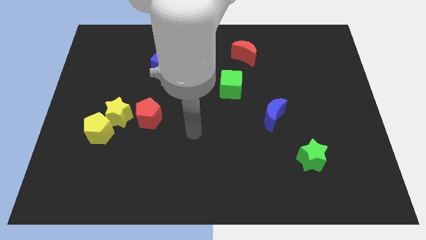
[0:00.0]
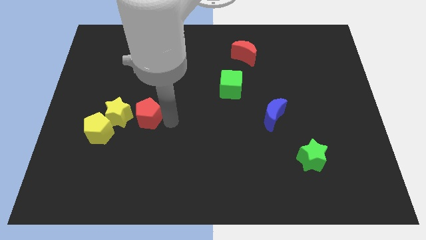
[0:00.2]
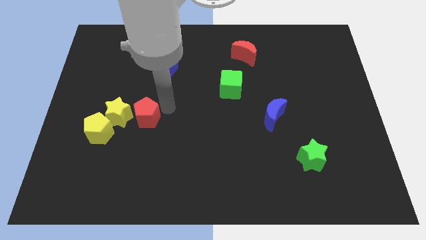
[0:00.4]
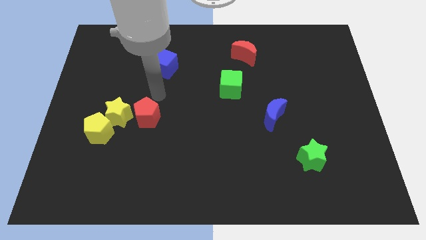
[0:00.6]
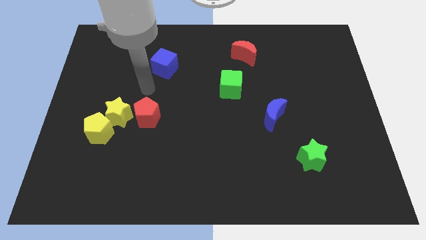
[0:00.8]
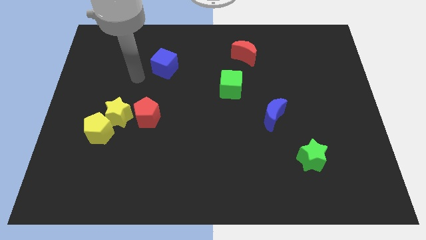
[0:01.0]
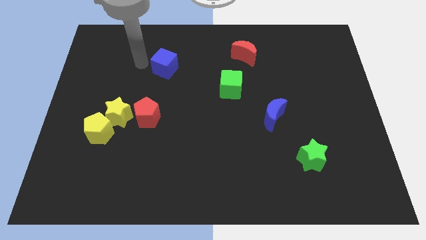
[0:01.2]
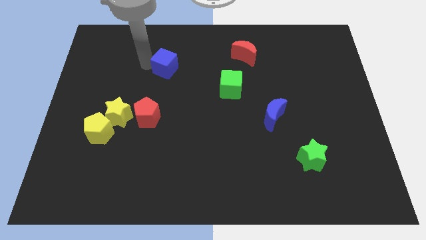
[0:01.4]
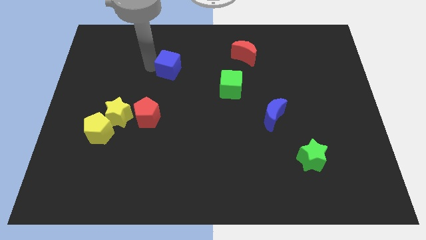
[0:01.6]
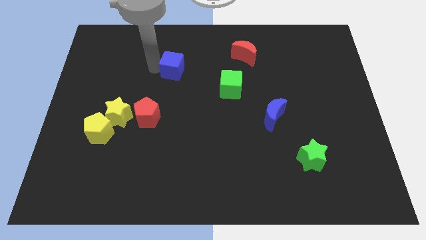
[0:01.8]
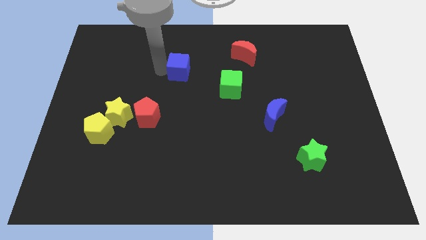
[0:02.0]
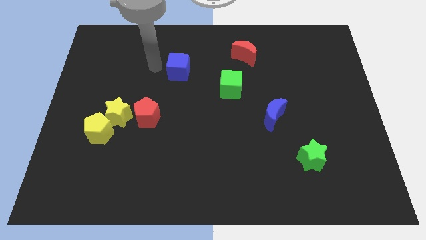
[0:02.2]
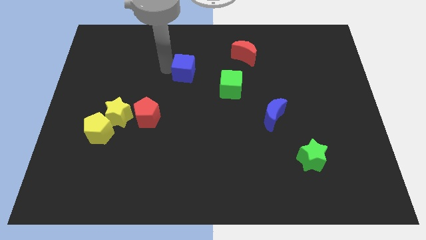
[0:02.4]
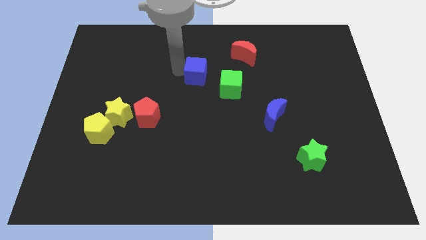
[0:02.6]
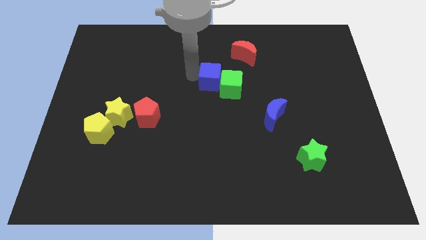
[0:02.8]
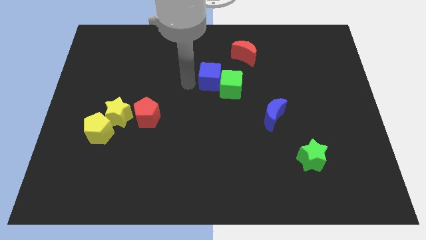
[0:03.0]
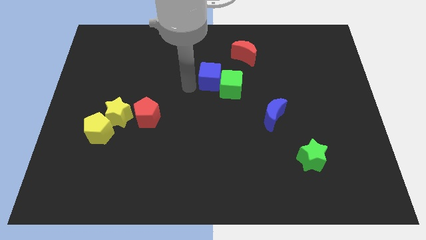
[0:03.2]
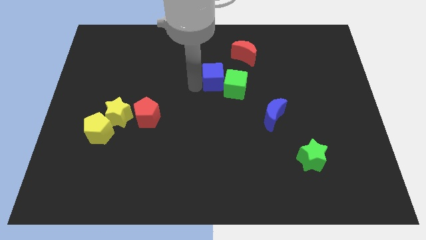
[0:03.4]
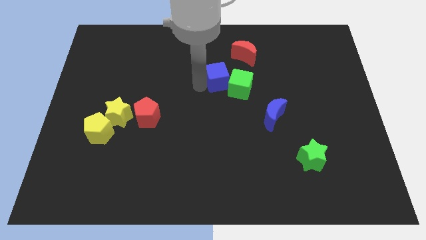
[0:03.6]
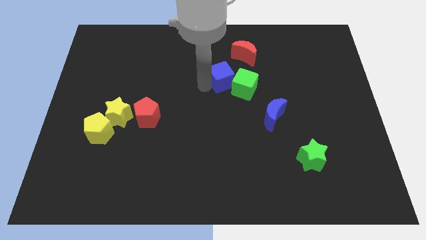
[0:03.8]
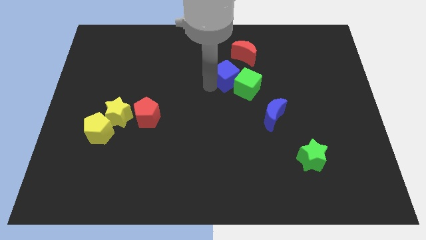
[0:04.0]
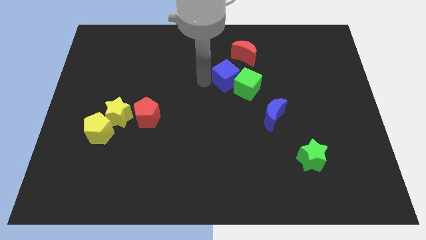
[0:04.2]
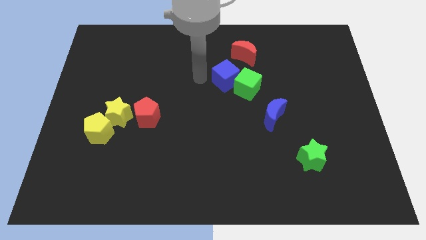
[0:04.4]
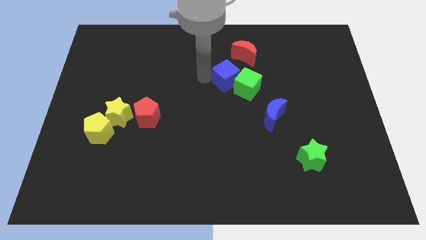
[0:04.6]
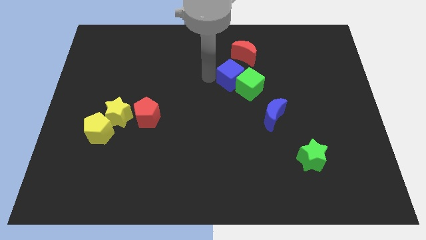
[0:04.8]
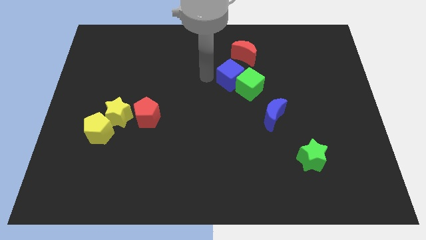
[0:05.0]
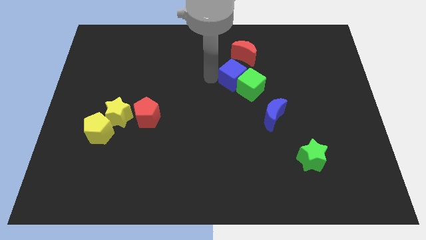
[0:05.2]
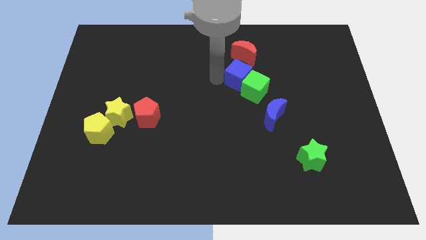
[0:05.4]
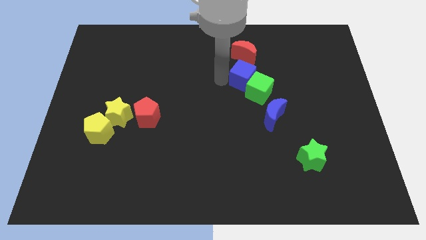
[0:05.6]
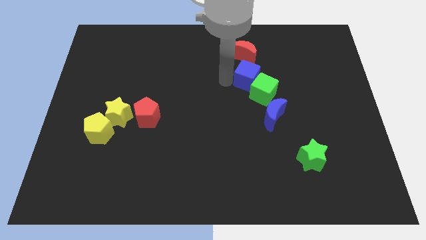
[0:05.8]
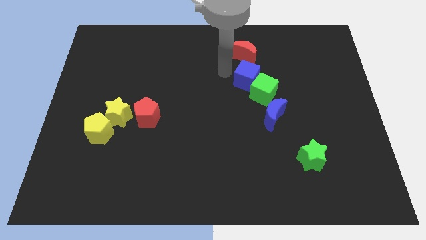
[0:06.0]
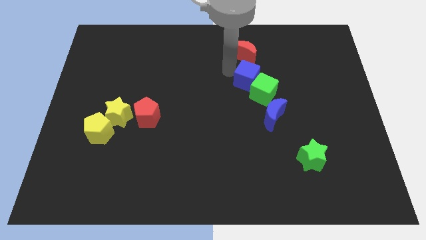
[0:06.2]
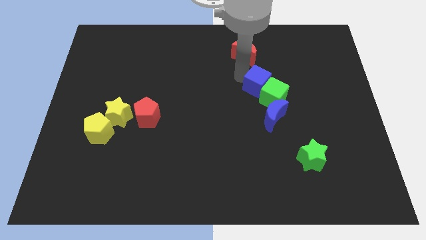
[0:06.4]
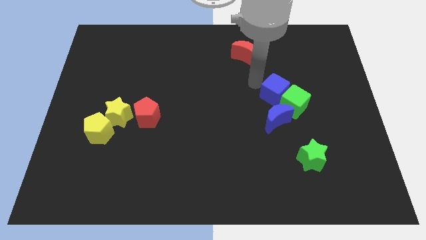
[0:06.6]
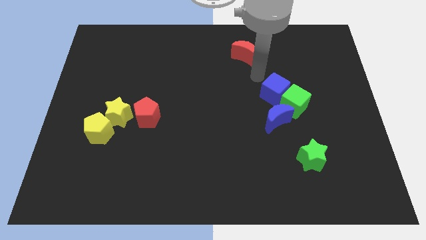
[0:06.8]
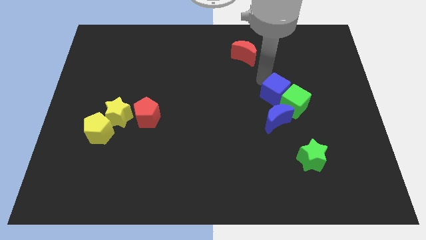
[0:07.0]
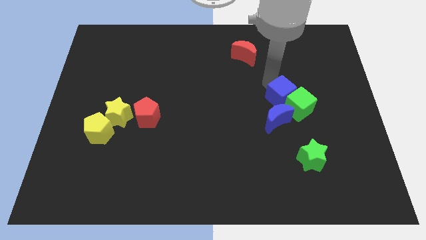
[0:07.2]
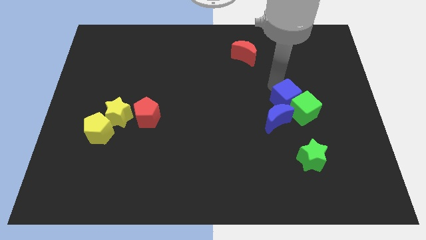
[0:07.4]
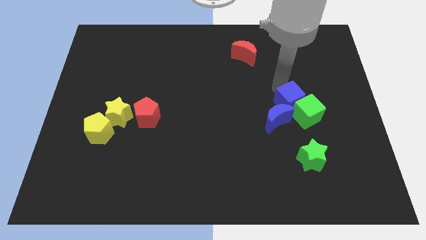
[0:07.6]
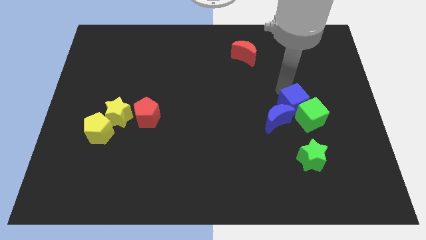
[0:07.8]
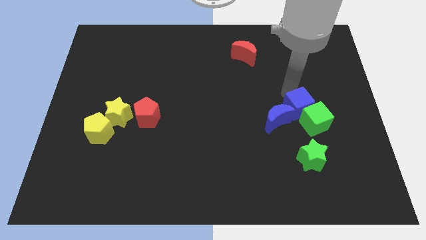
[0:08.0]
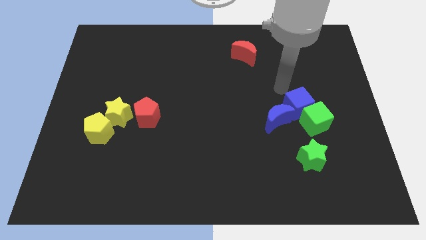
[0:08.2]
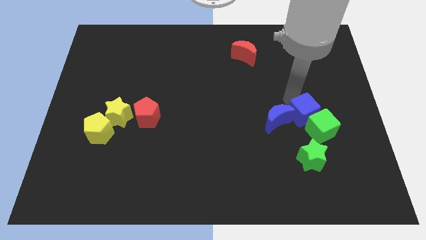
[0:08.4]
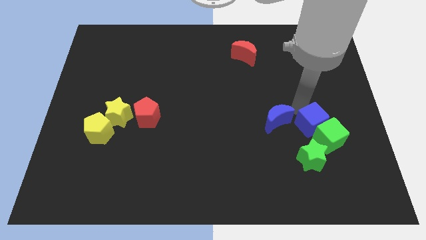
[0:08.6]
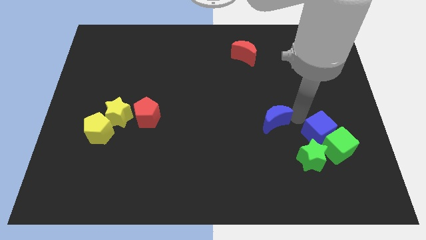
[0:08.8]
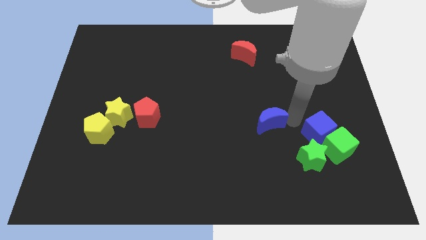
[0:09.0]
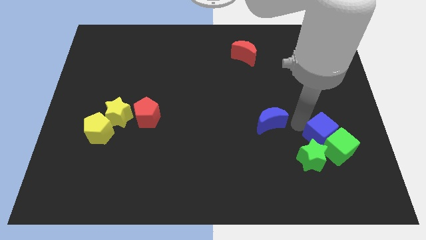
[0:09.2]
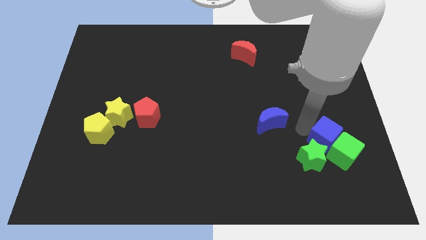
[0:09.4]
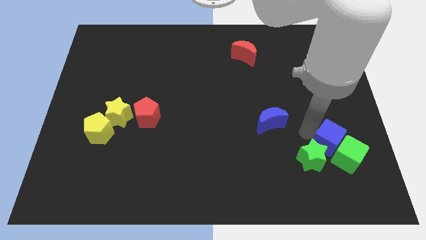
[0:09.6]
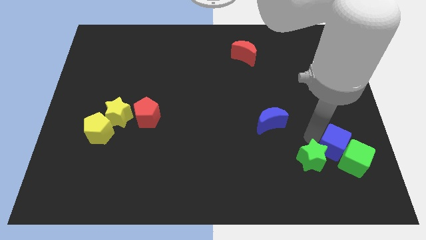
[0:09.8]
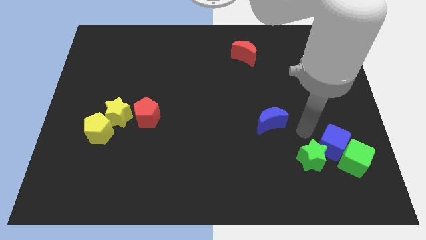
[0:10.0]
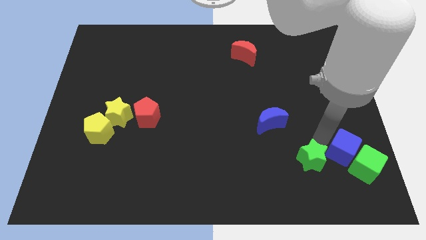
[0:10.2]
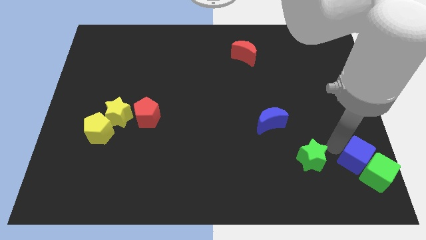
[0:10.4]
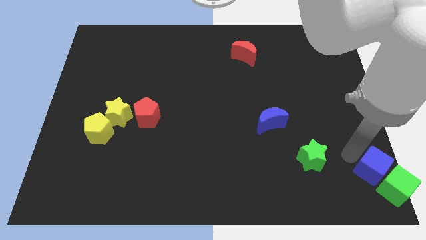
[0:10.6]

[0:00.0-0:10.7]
push the blue cube to the bottom right

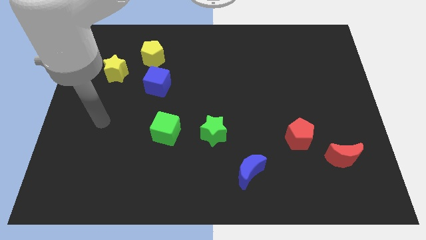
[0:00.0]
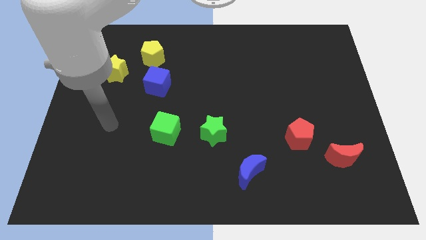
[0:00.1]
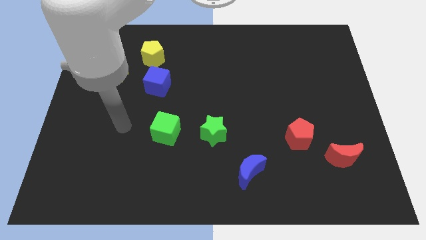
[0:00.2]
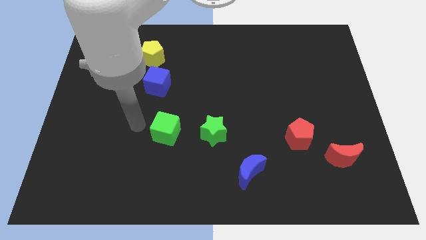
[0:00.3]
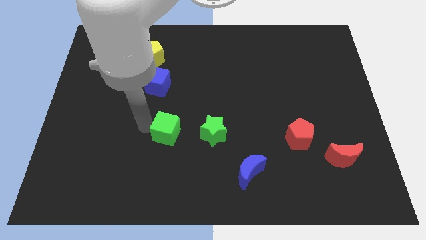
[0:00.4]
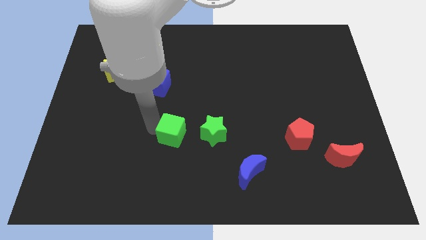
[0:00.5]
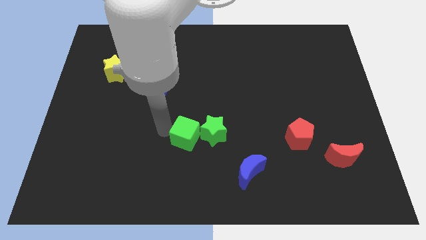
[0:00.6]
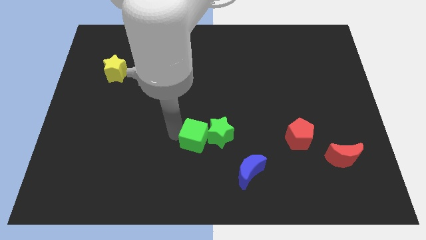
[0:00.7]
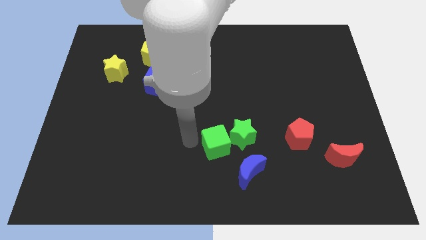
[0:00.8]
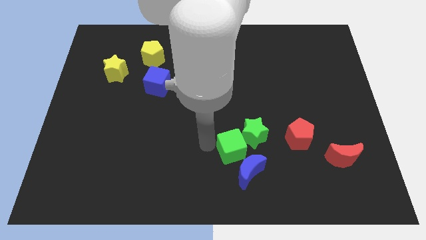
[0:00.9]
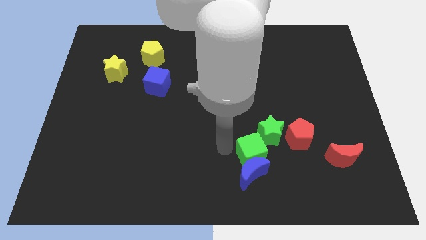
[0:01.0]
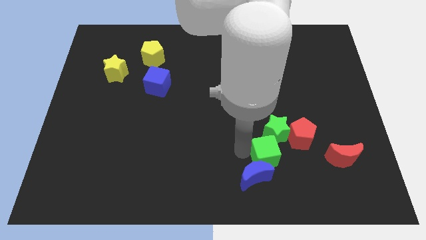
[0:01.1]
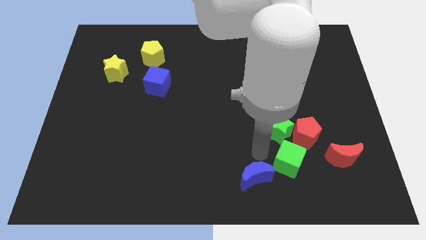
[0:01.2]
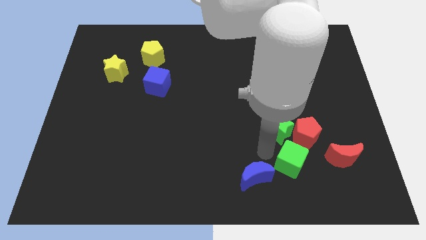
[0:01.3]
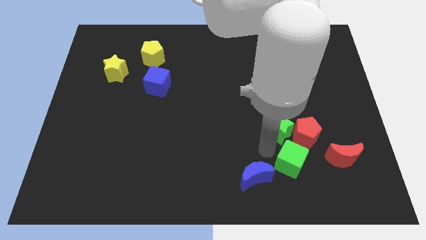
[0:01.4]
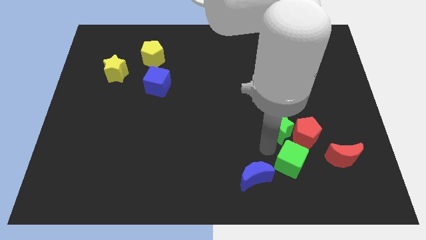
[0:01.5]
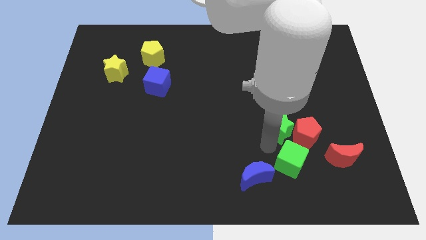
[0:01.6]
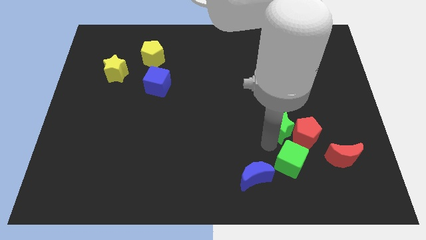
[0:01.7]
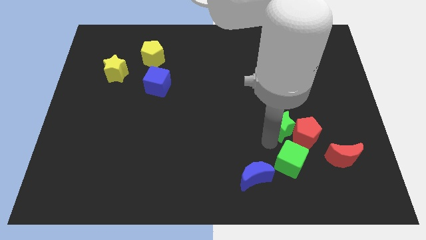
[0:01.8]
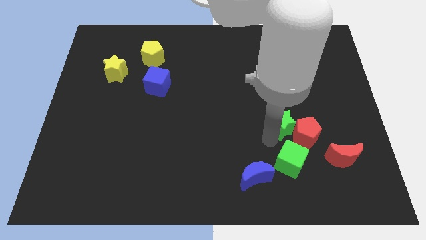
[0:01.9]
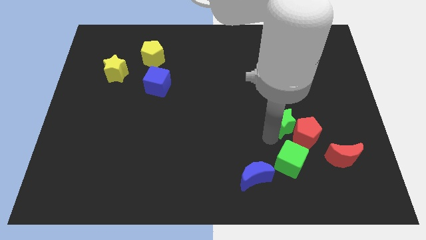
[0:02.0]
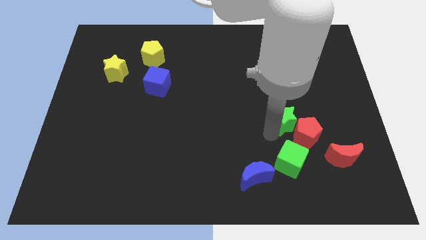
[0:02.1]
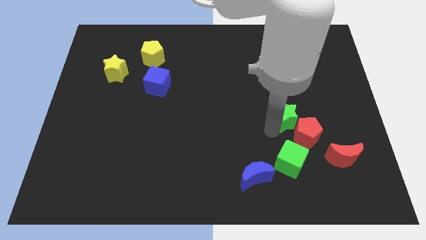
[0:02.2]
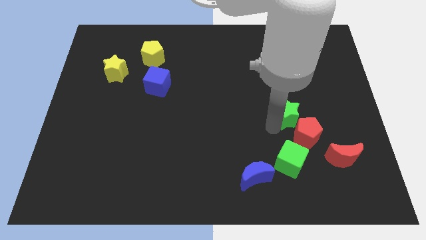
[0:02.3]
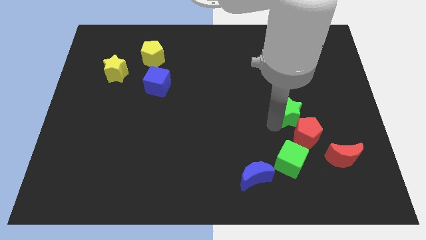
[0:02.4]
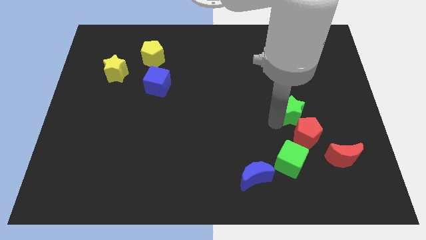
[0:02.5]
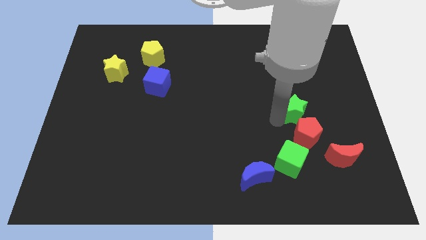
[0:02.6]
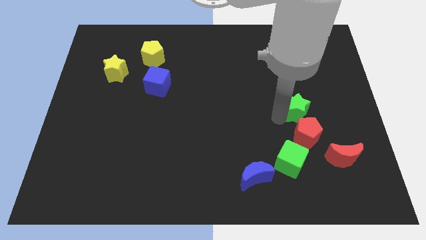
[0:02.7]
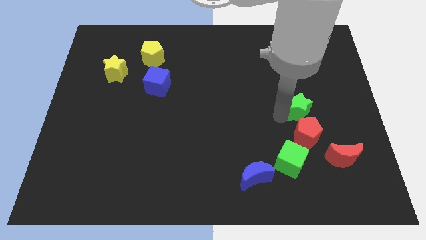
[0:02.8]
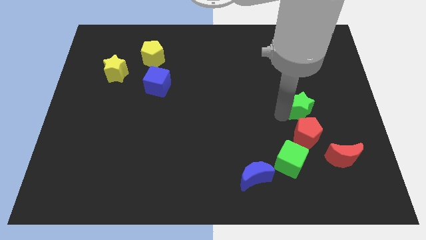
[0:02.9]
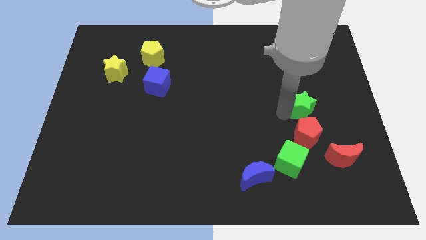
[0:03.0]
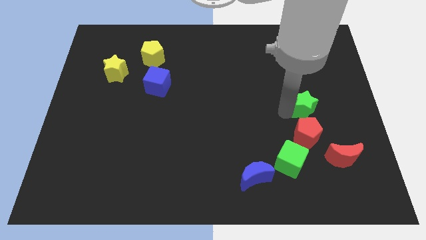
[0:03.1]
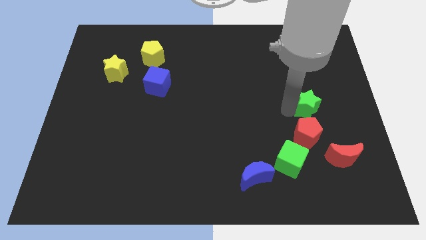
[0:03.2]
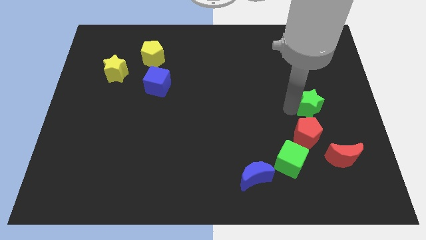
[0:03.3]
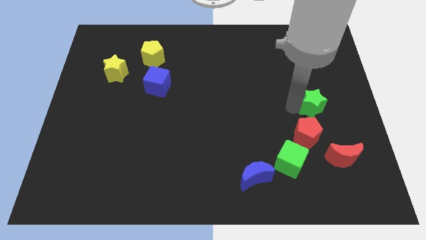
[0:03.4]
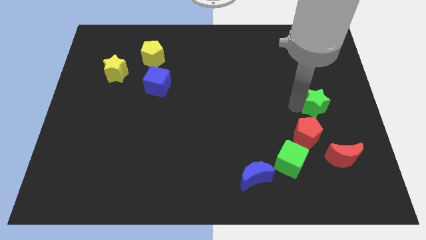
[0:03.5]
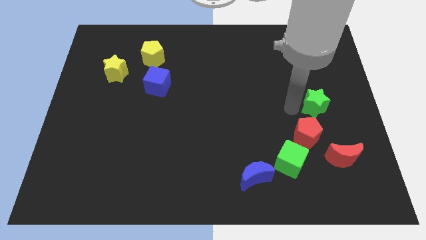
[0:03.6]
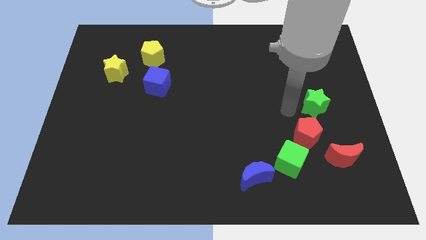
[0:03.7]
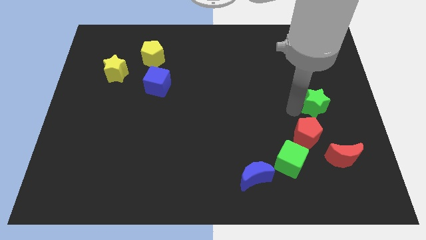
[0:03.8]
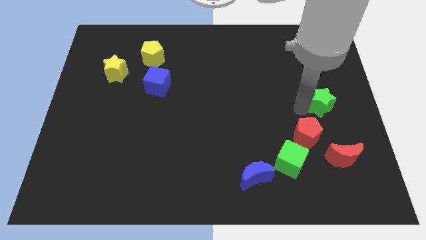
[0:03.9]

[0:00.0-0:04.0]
move the green star to the right side of the board
